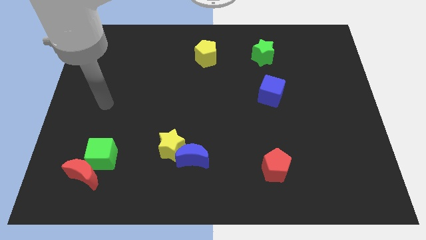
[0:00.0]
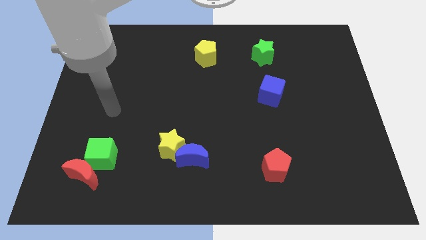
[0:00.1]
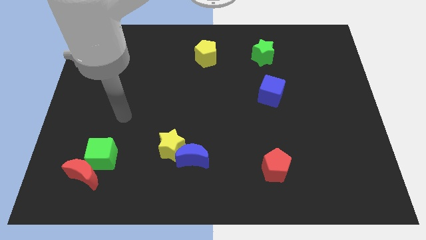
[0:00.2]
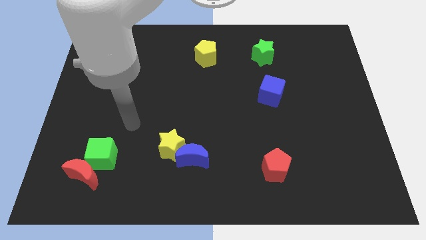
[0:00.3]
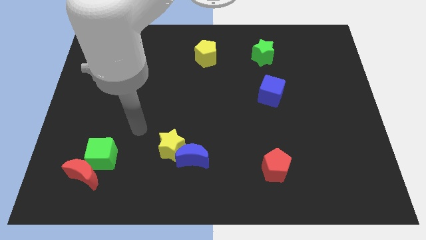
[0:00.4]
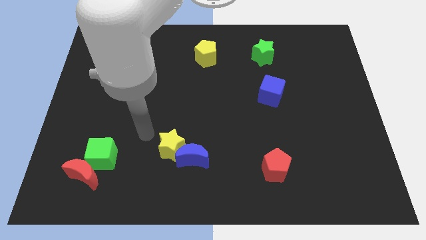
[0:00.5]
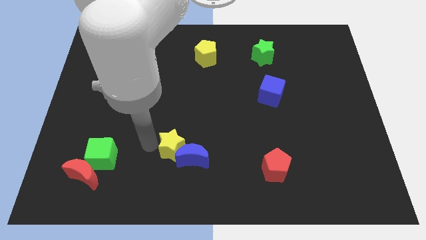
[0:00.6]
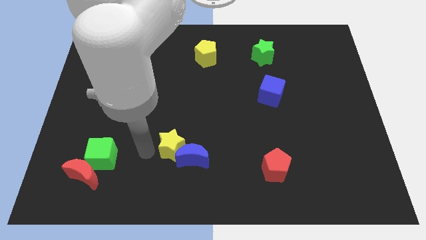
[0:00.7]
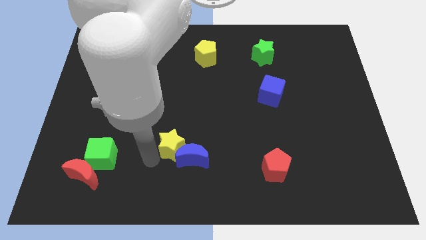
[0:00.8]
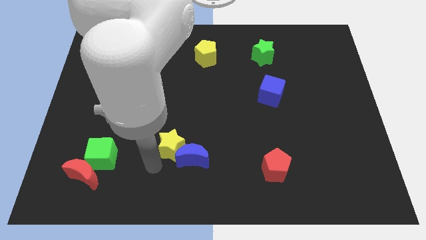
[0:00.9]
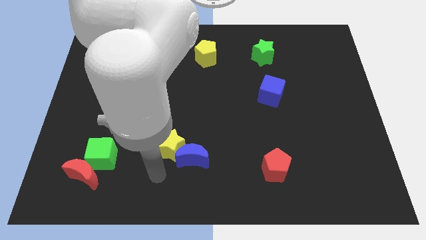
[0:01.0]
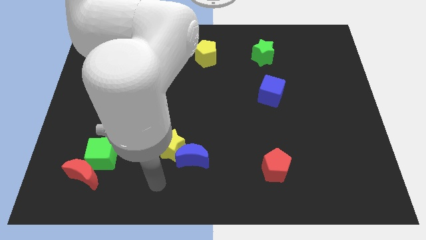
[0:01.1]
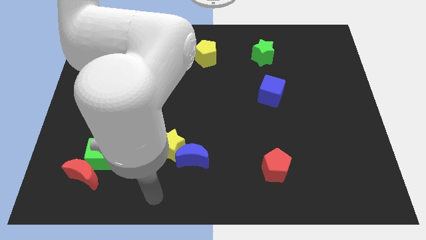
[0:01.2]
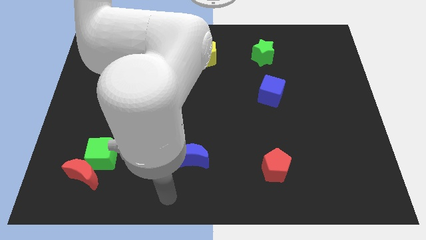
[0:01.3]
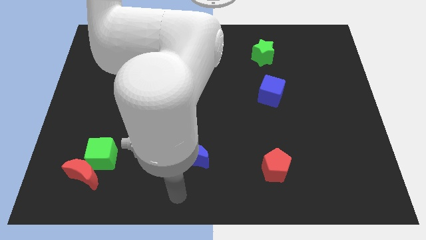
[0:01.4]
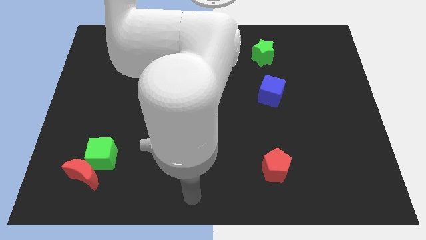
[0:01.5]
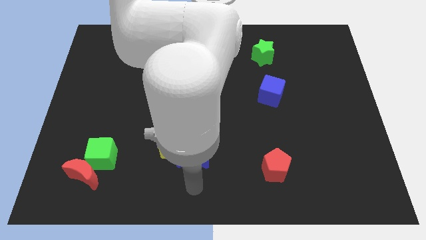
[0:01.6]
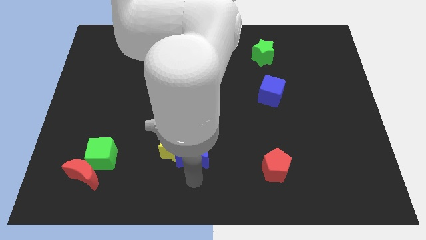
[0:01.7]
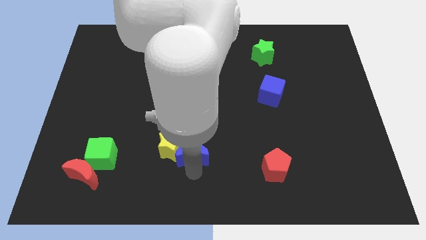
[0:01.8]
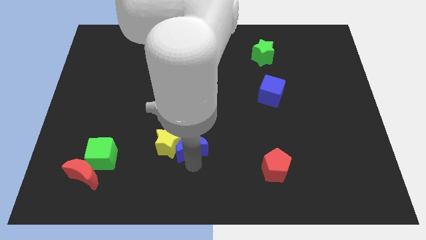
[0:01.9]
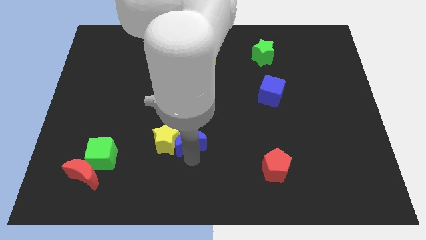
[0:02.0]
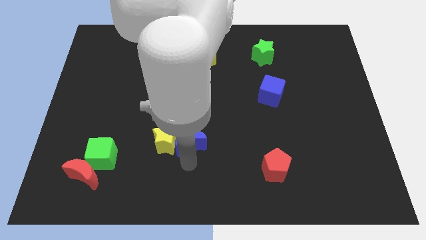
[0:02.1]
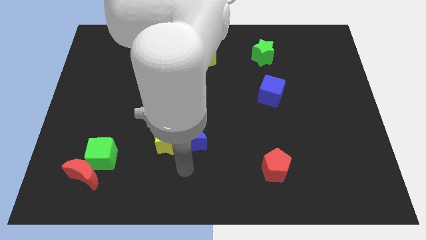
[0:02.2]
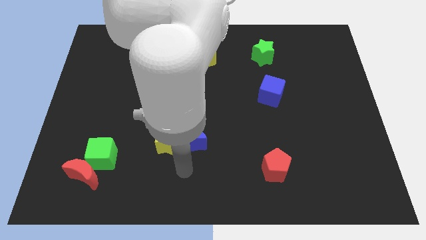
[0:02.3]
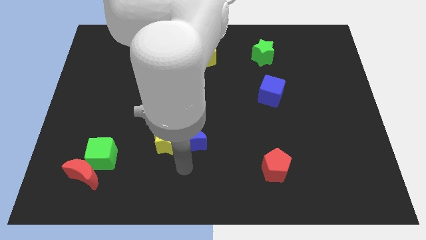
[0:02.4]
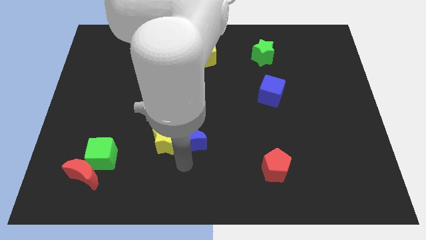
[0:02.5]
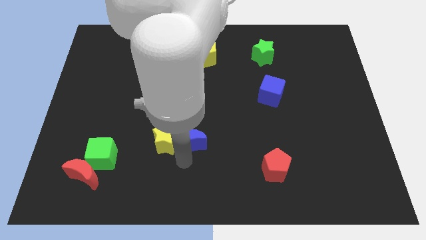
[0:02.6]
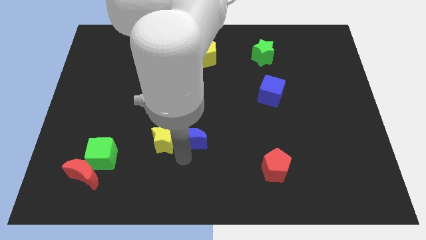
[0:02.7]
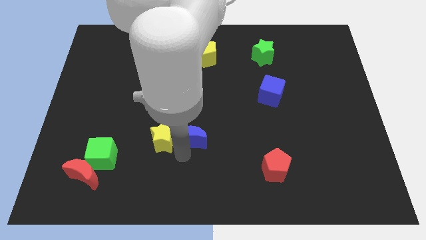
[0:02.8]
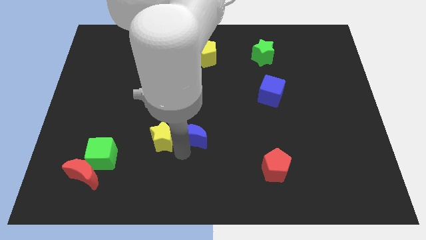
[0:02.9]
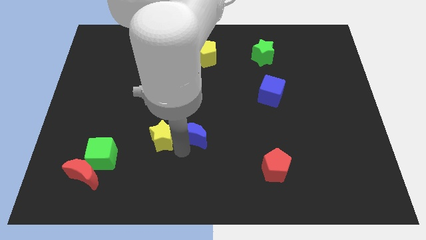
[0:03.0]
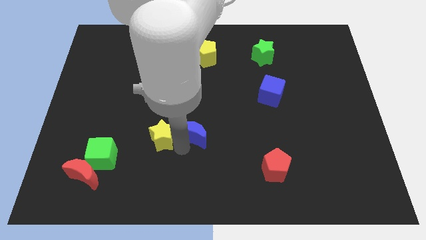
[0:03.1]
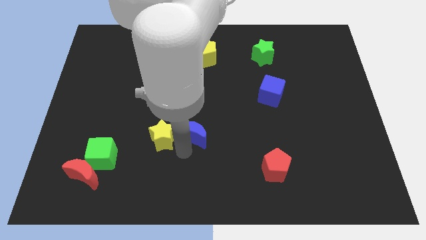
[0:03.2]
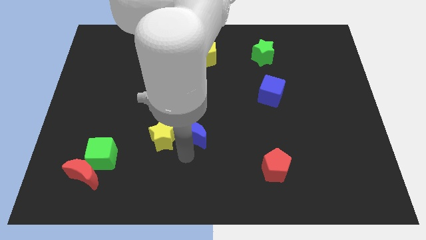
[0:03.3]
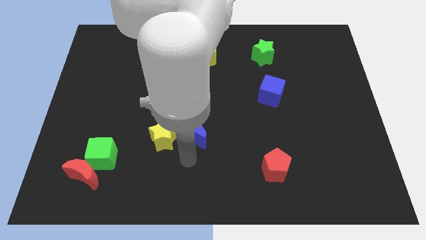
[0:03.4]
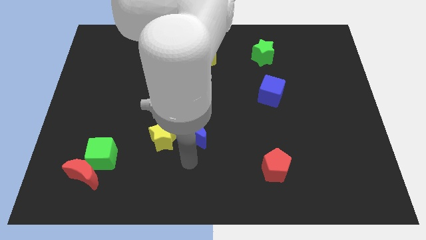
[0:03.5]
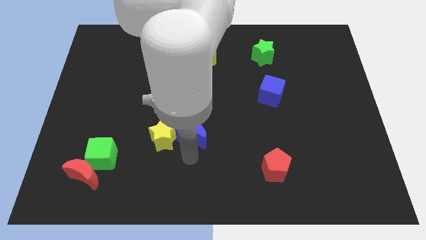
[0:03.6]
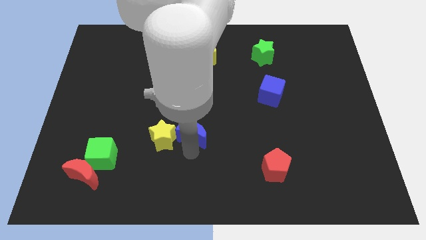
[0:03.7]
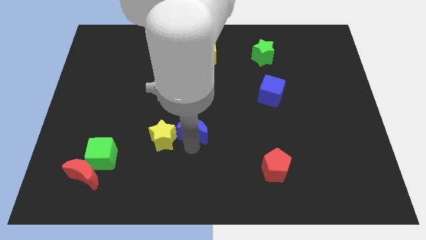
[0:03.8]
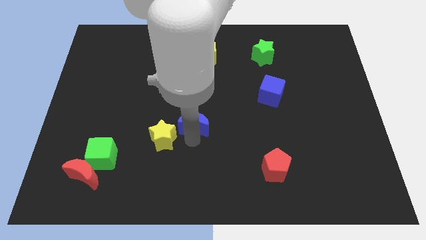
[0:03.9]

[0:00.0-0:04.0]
slide the blue moon slightly up

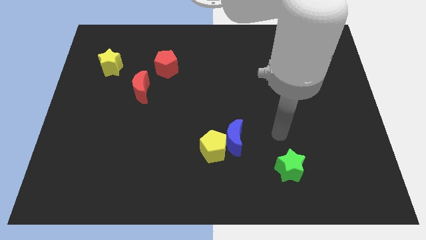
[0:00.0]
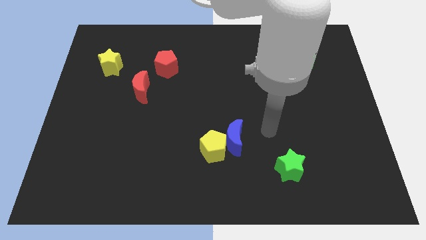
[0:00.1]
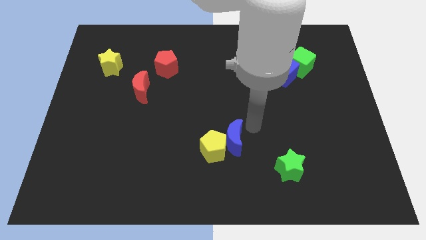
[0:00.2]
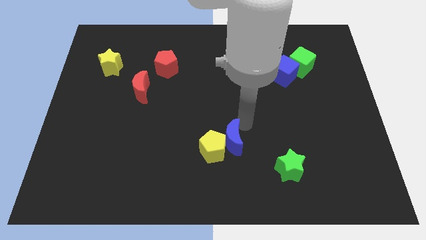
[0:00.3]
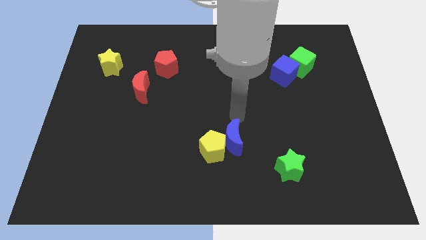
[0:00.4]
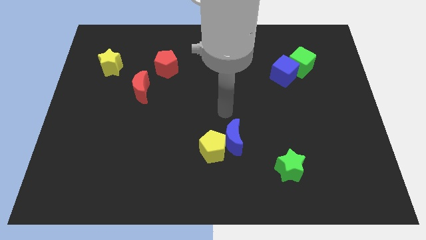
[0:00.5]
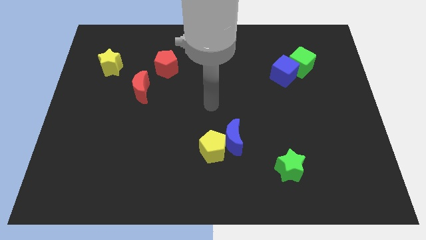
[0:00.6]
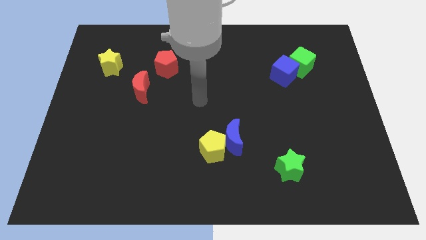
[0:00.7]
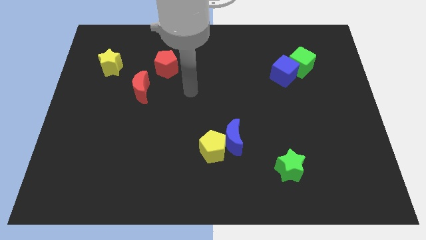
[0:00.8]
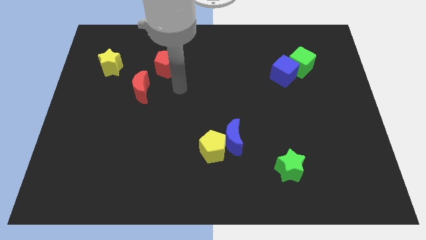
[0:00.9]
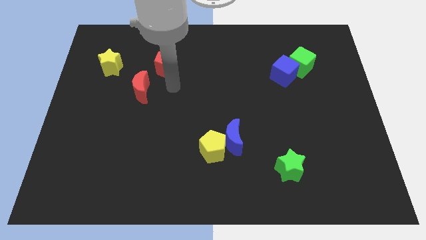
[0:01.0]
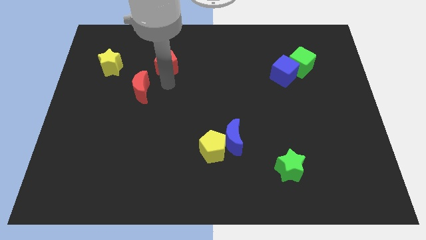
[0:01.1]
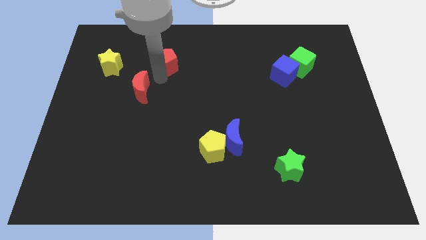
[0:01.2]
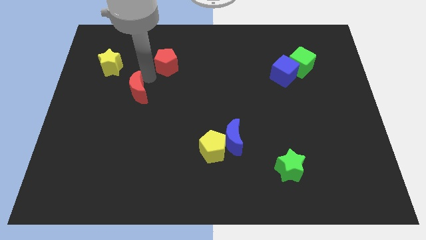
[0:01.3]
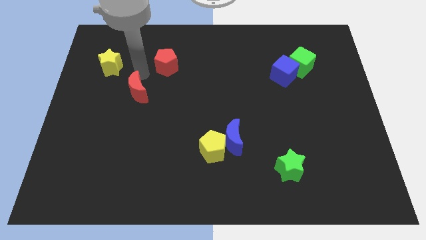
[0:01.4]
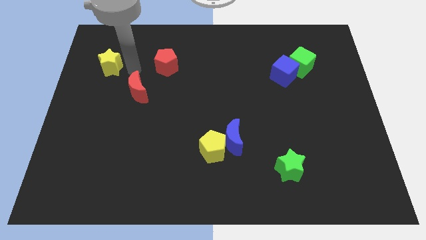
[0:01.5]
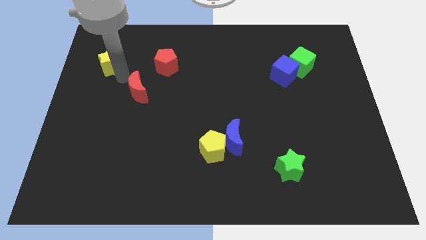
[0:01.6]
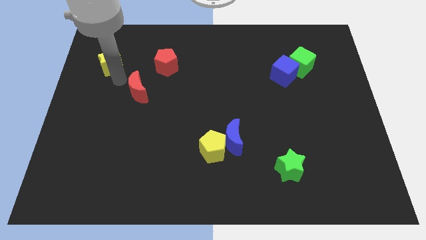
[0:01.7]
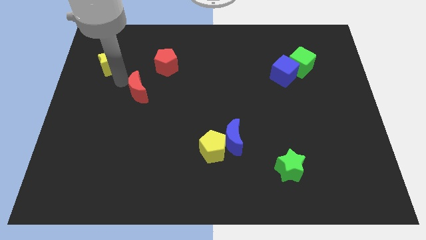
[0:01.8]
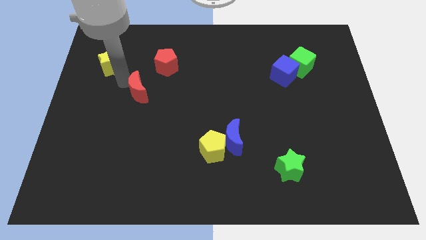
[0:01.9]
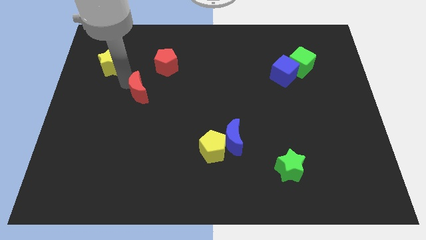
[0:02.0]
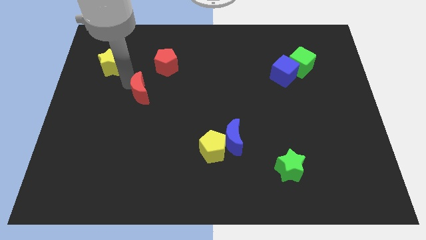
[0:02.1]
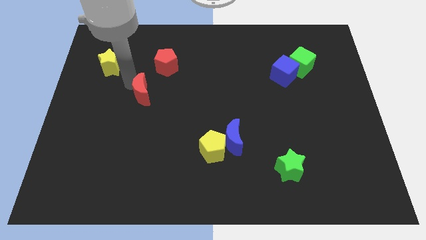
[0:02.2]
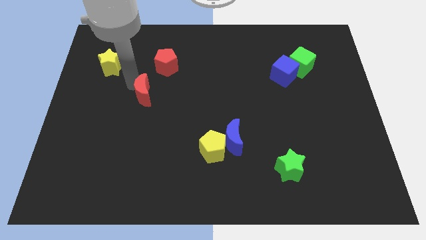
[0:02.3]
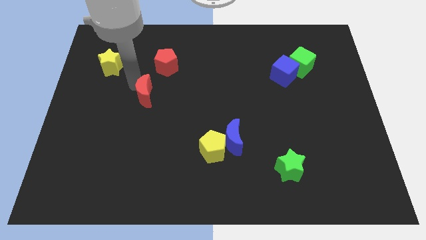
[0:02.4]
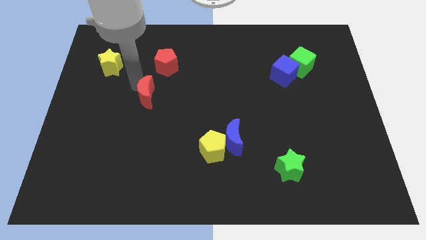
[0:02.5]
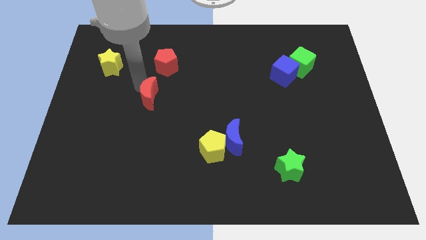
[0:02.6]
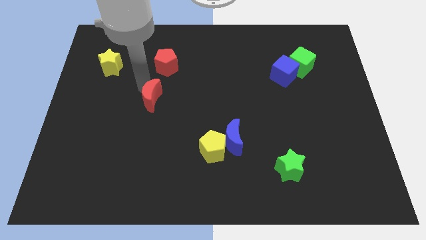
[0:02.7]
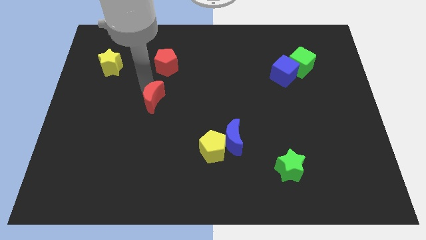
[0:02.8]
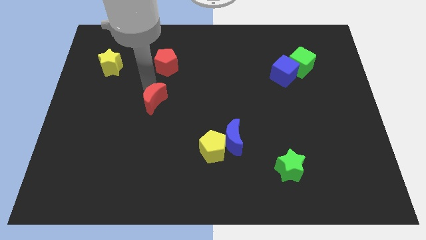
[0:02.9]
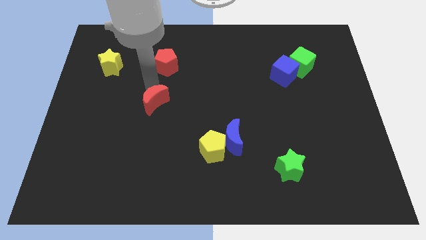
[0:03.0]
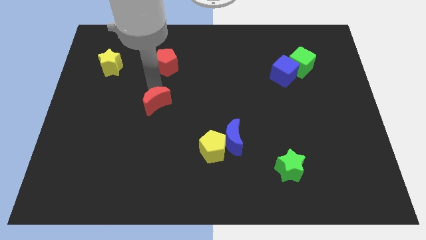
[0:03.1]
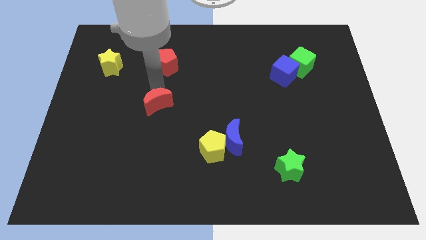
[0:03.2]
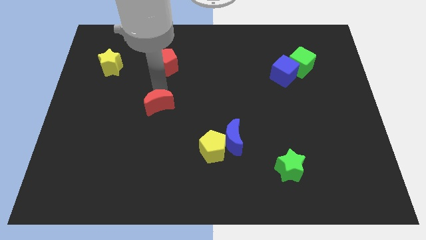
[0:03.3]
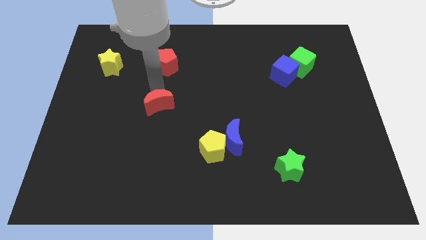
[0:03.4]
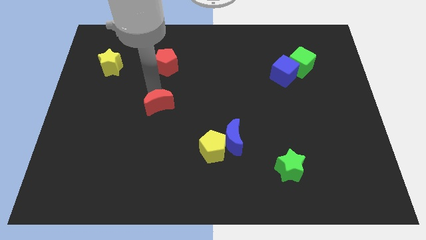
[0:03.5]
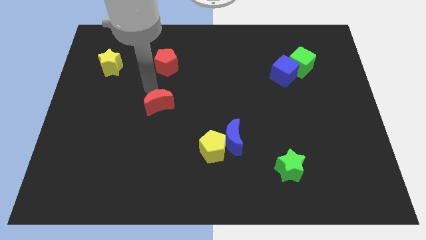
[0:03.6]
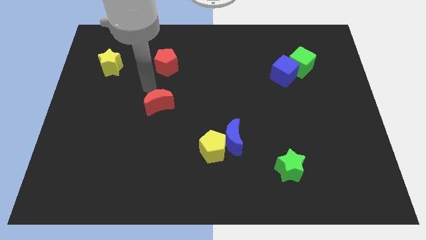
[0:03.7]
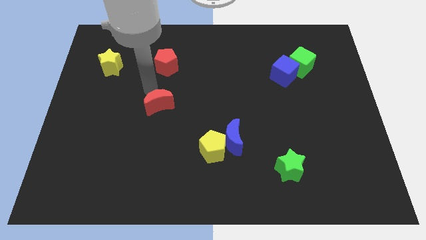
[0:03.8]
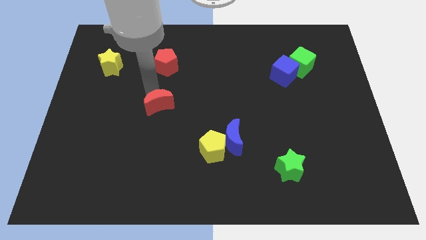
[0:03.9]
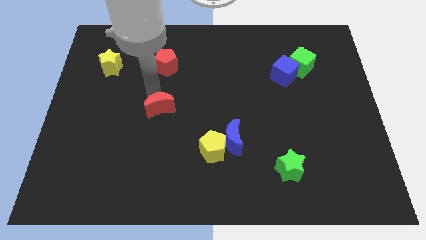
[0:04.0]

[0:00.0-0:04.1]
push the red moon slightly down and then to the right

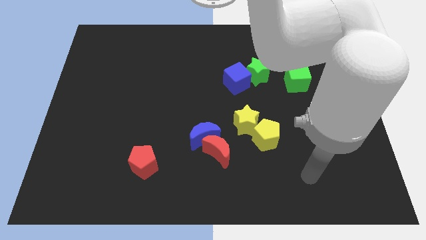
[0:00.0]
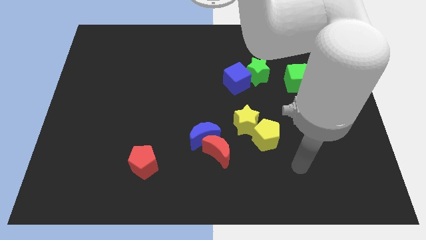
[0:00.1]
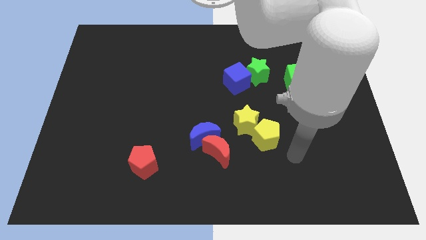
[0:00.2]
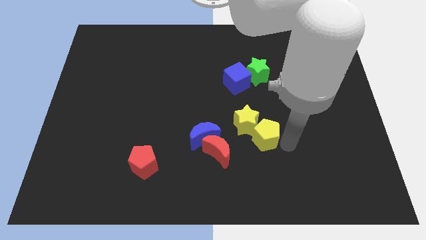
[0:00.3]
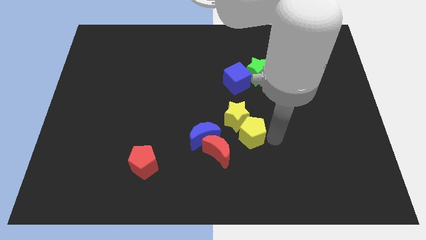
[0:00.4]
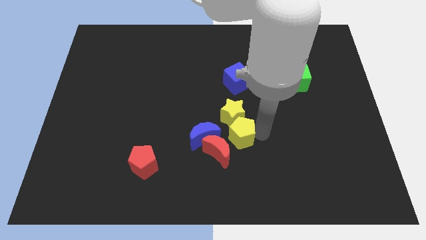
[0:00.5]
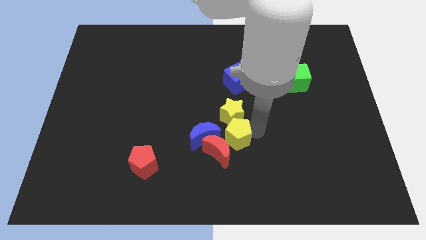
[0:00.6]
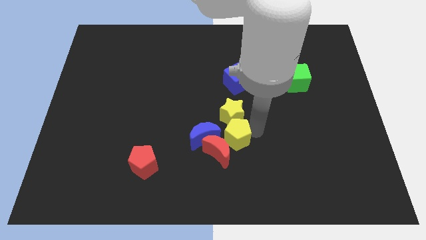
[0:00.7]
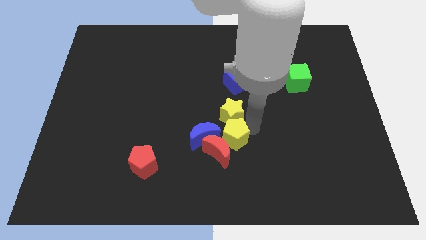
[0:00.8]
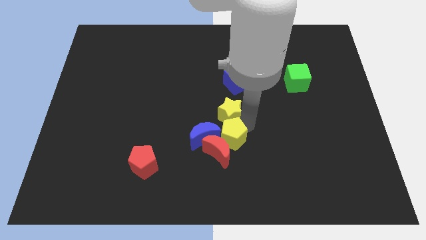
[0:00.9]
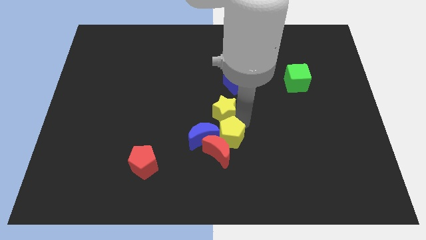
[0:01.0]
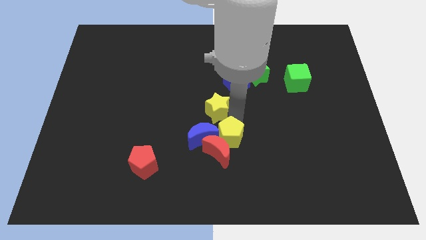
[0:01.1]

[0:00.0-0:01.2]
slide the yellow star somewhat diagonally up and left
